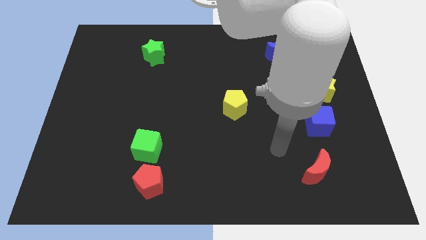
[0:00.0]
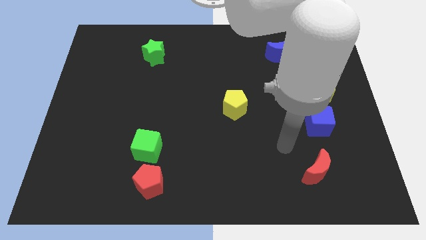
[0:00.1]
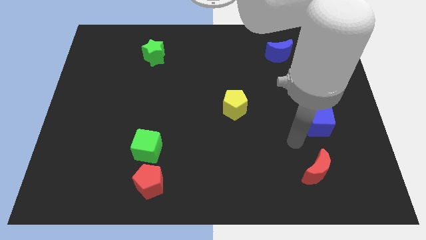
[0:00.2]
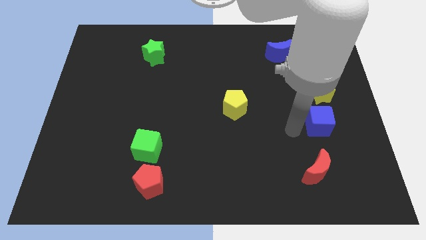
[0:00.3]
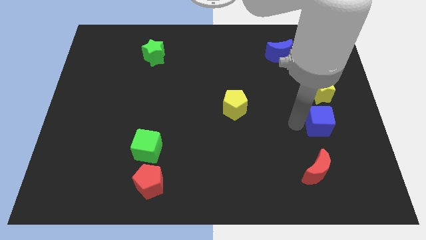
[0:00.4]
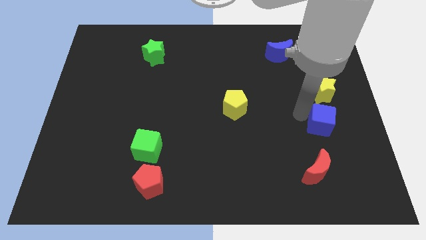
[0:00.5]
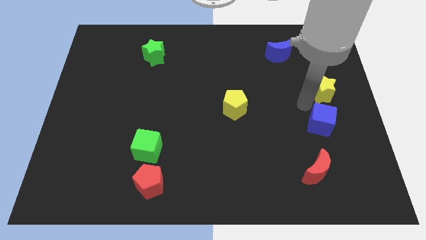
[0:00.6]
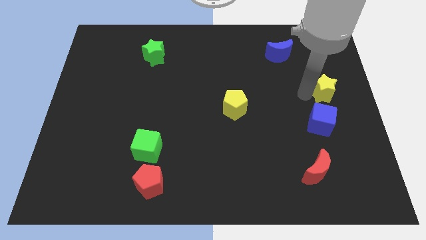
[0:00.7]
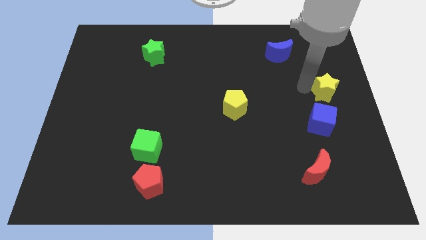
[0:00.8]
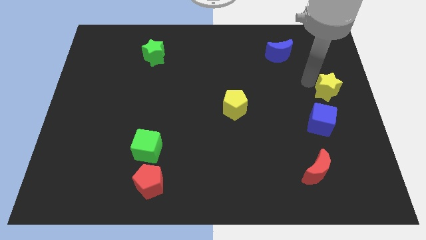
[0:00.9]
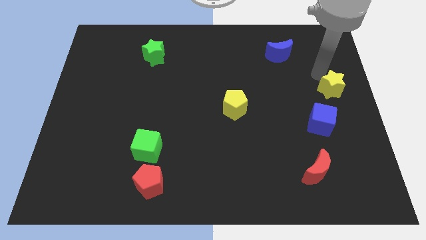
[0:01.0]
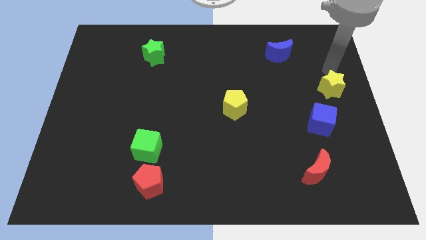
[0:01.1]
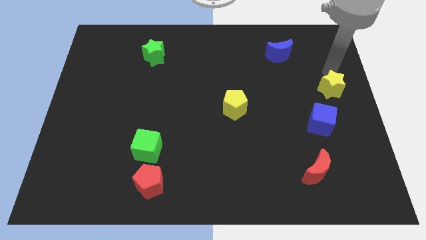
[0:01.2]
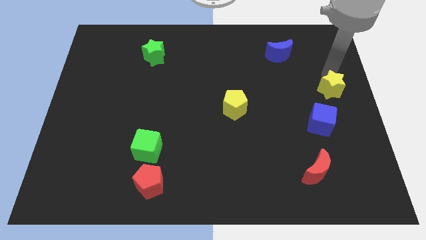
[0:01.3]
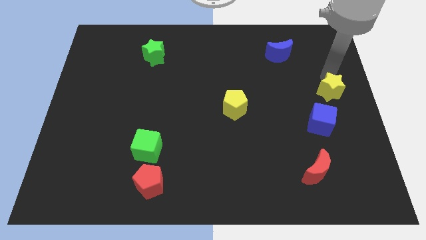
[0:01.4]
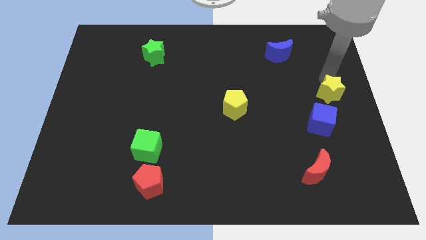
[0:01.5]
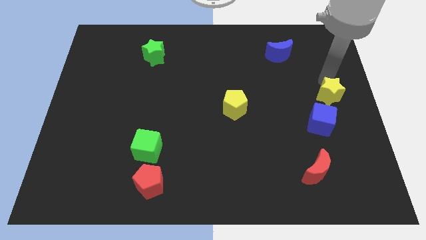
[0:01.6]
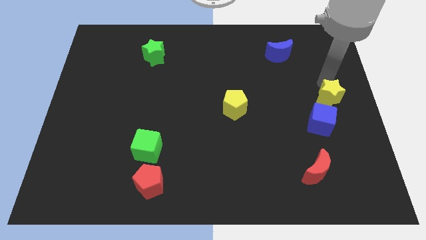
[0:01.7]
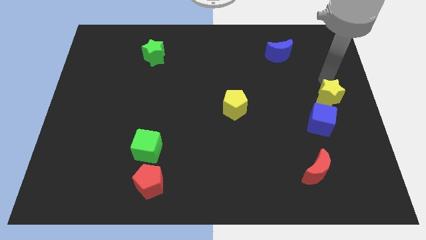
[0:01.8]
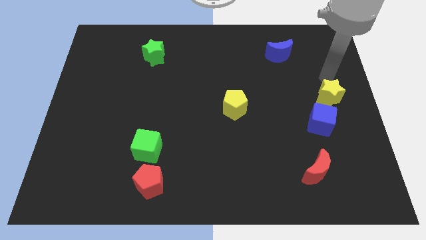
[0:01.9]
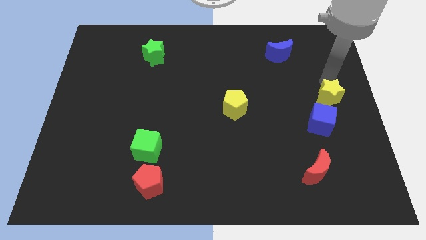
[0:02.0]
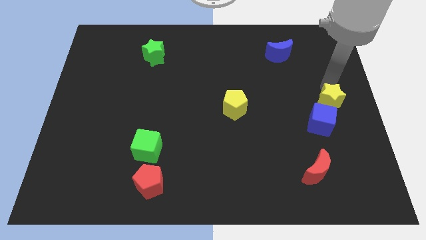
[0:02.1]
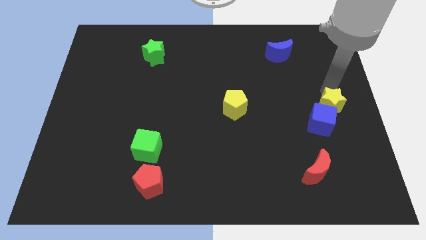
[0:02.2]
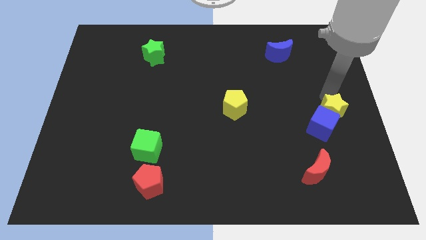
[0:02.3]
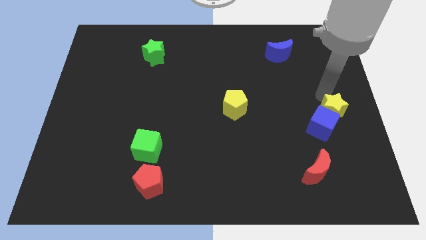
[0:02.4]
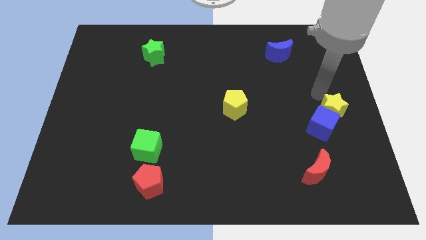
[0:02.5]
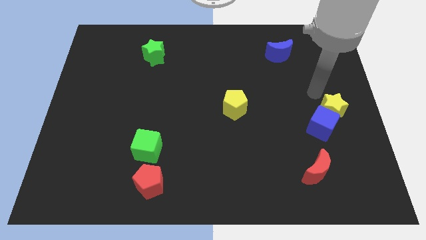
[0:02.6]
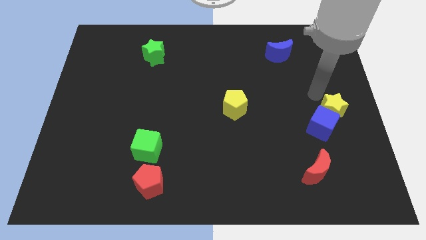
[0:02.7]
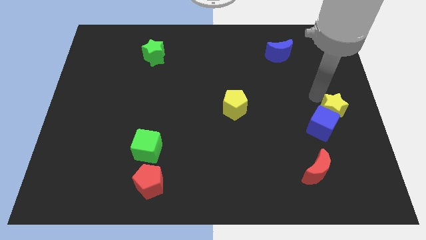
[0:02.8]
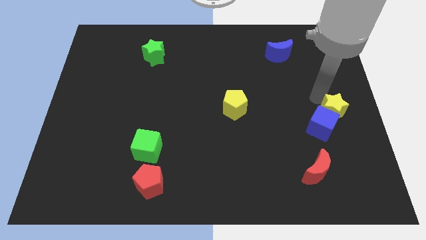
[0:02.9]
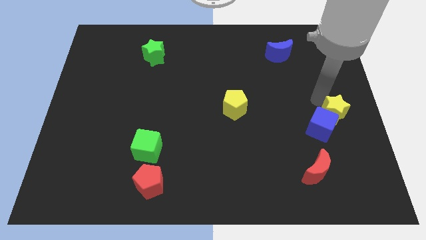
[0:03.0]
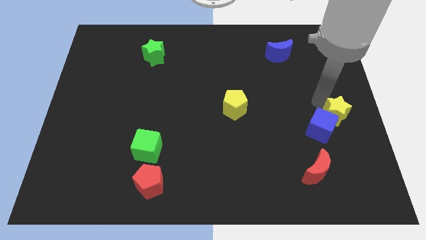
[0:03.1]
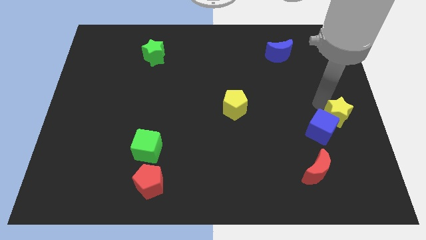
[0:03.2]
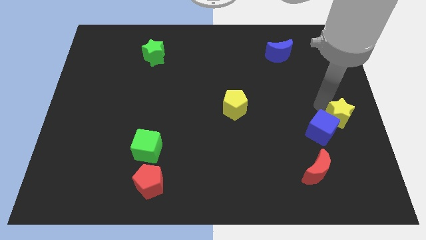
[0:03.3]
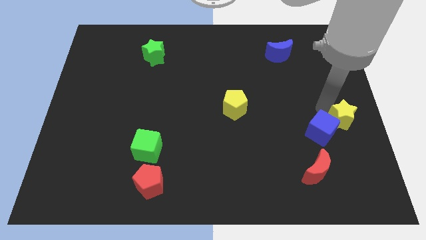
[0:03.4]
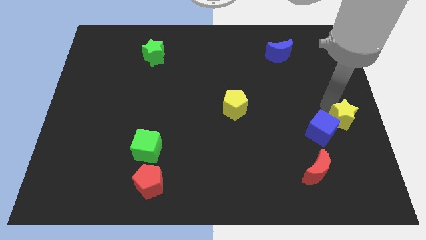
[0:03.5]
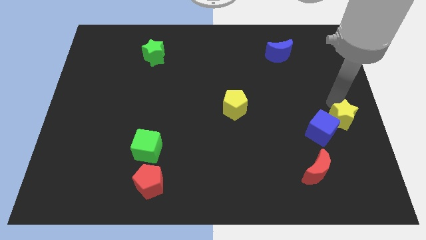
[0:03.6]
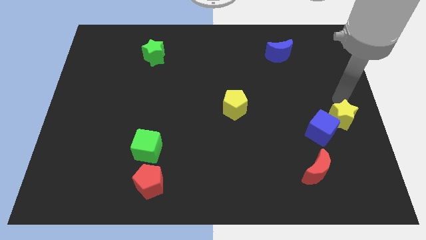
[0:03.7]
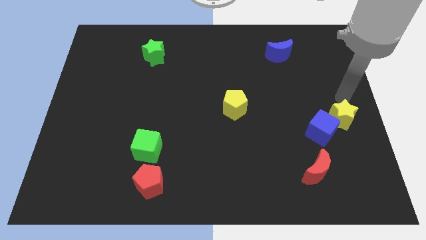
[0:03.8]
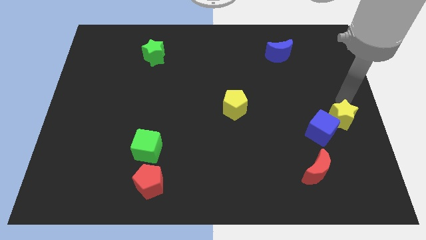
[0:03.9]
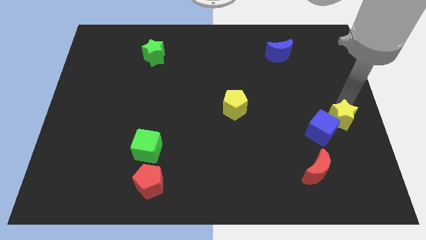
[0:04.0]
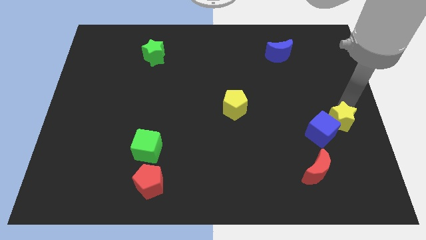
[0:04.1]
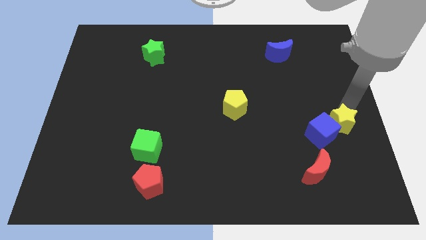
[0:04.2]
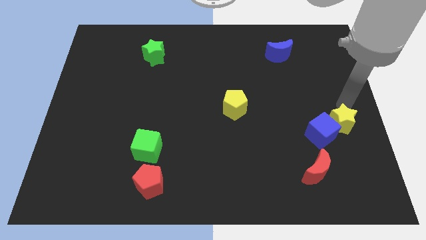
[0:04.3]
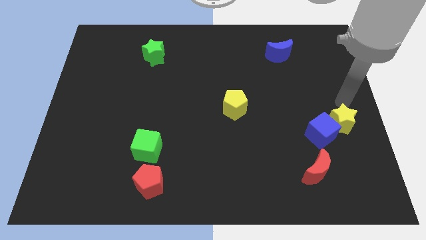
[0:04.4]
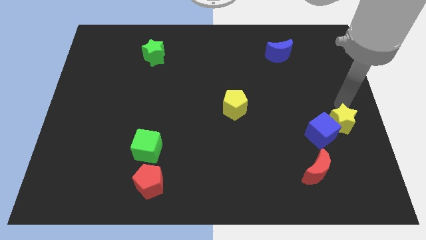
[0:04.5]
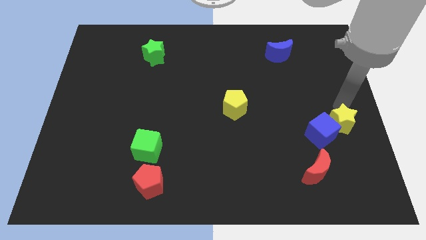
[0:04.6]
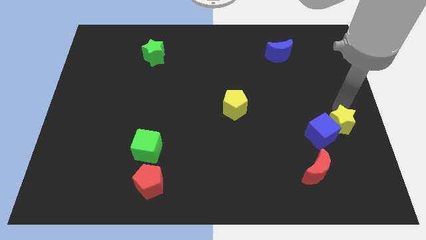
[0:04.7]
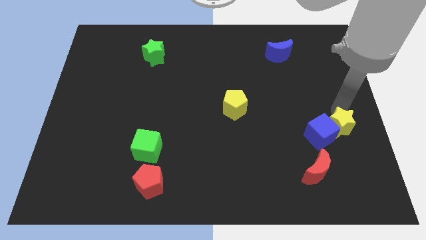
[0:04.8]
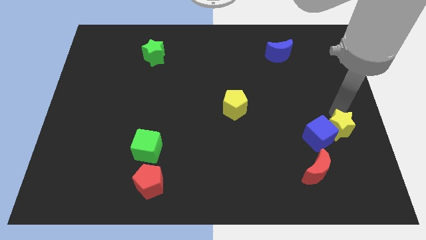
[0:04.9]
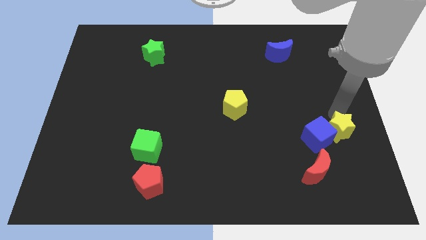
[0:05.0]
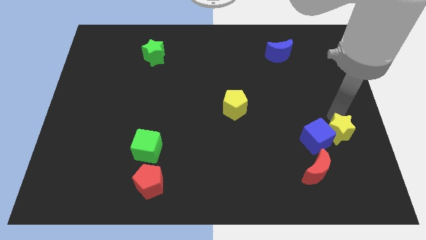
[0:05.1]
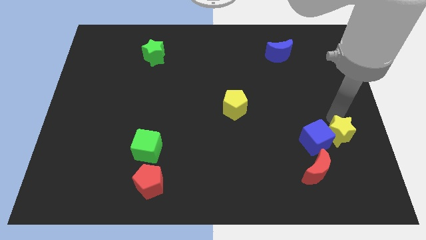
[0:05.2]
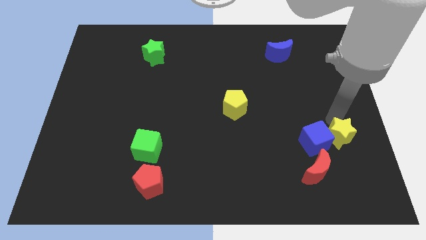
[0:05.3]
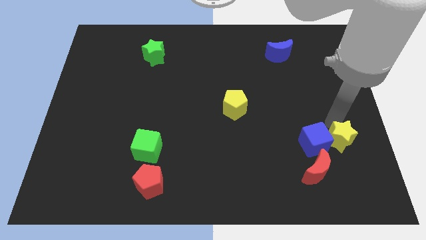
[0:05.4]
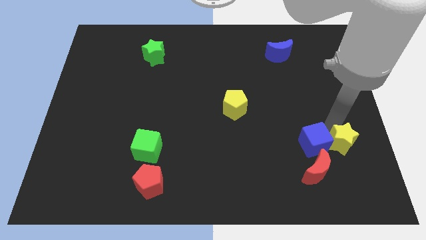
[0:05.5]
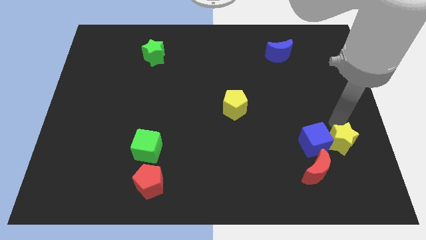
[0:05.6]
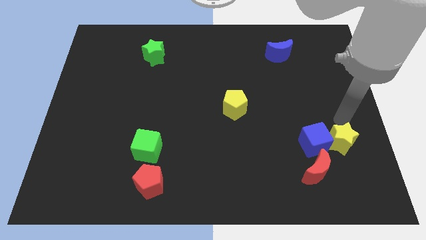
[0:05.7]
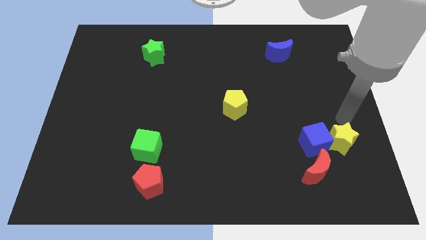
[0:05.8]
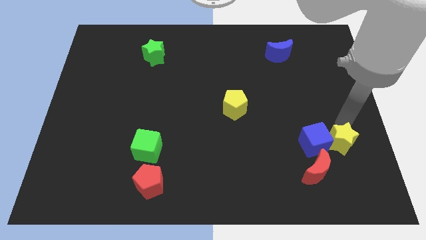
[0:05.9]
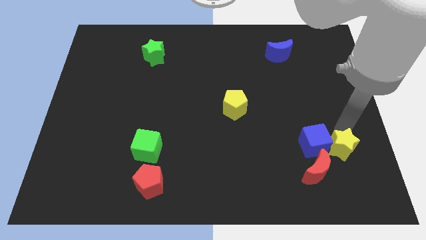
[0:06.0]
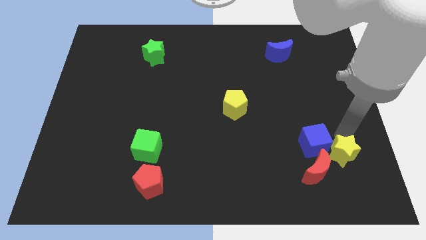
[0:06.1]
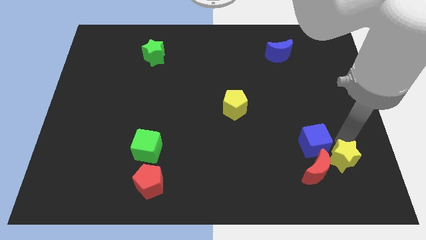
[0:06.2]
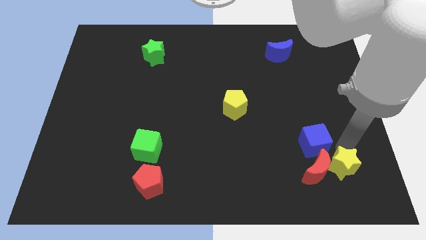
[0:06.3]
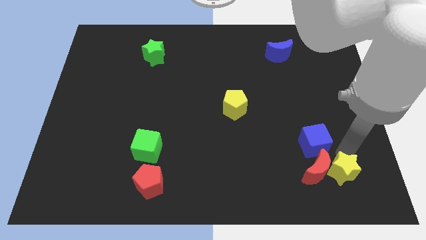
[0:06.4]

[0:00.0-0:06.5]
push the yellow star below the blue cube

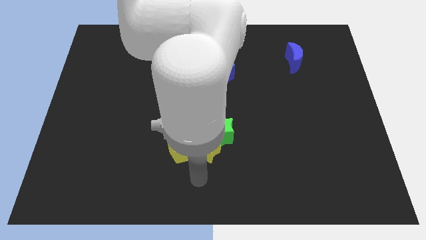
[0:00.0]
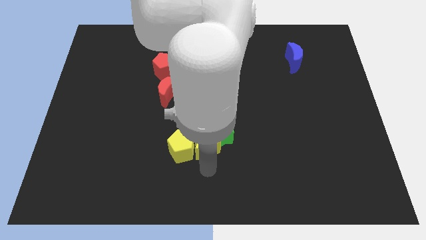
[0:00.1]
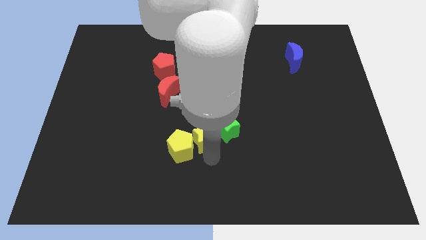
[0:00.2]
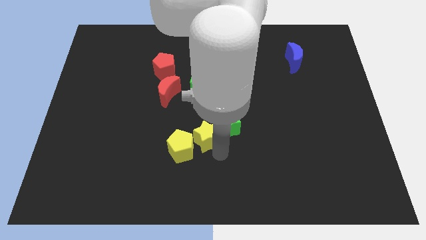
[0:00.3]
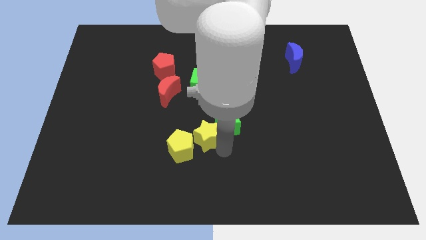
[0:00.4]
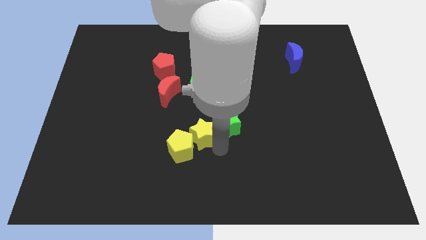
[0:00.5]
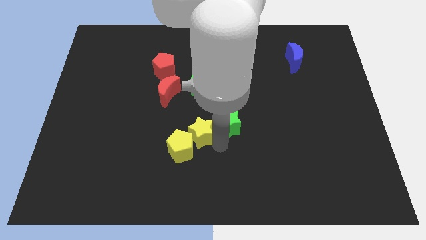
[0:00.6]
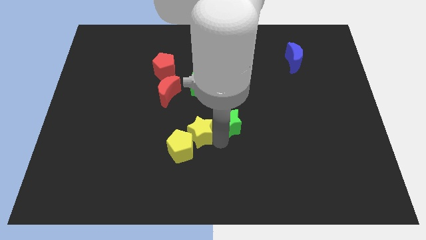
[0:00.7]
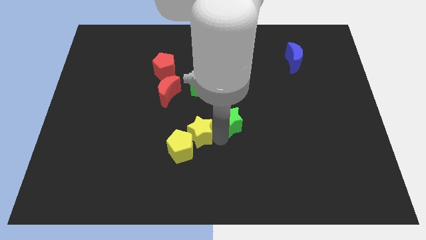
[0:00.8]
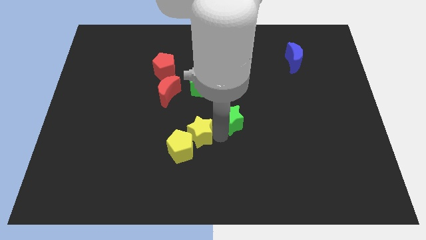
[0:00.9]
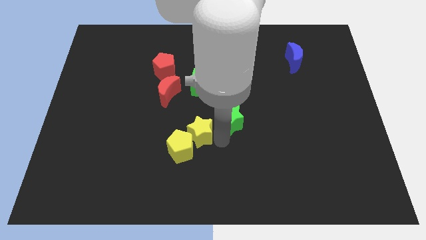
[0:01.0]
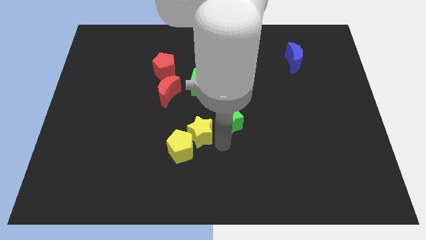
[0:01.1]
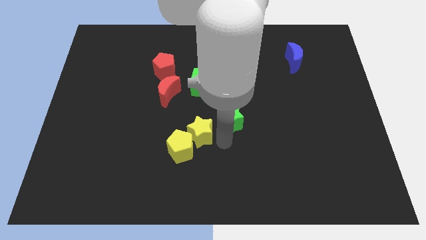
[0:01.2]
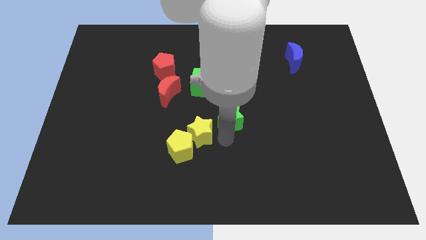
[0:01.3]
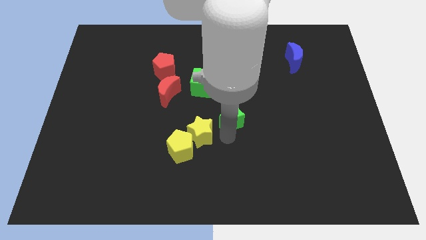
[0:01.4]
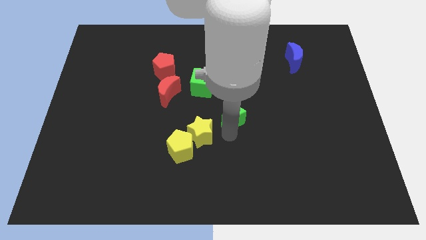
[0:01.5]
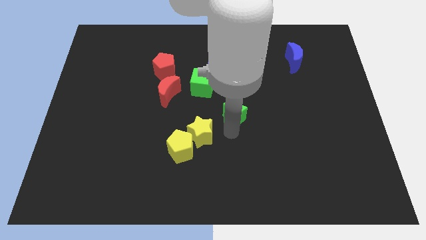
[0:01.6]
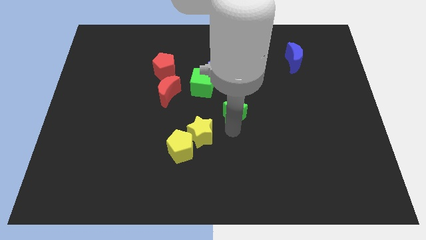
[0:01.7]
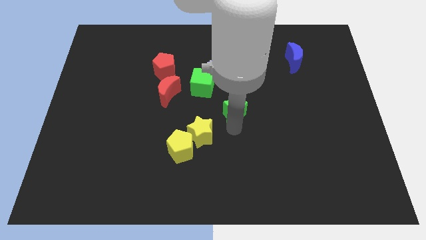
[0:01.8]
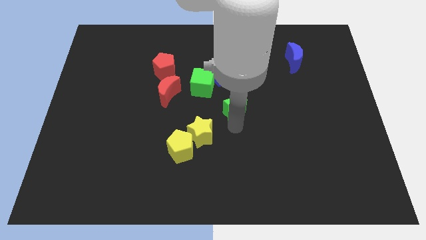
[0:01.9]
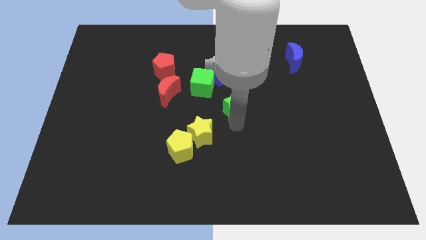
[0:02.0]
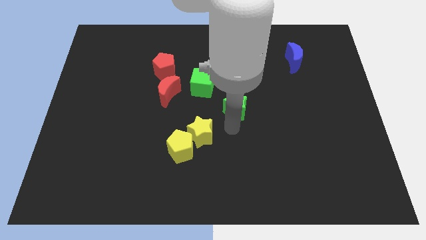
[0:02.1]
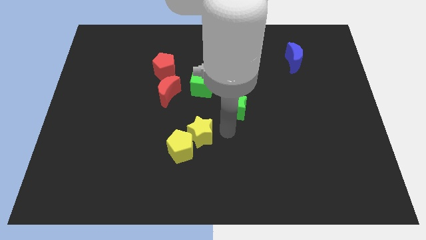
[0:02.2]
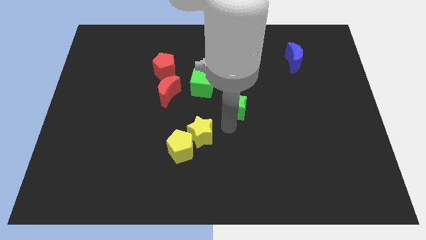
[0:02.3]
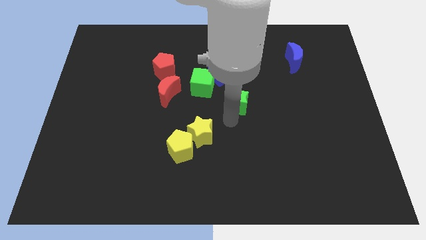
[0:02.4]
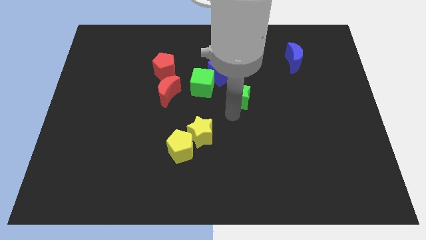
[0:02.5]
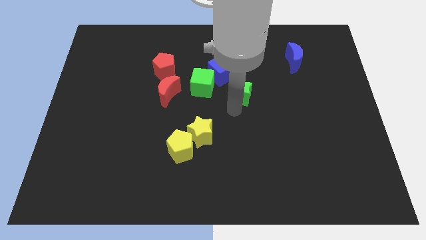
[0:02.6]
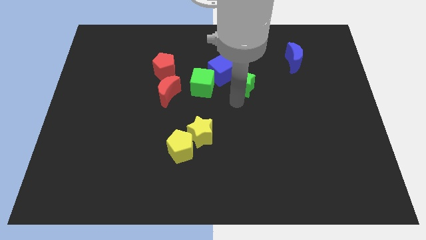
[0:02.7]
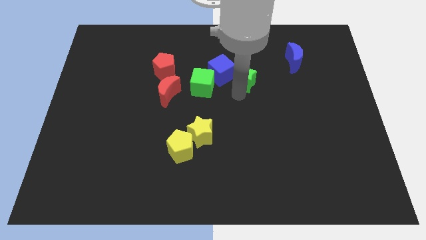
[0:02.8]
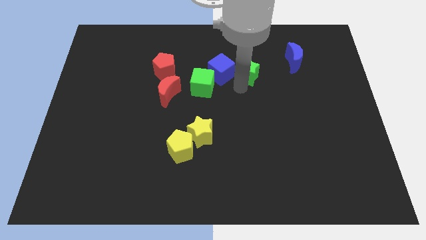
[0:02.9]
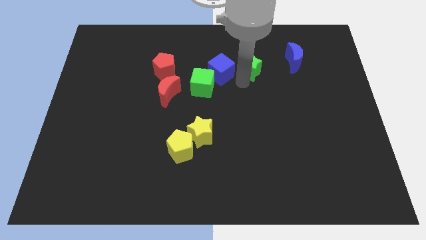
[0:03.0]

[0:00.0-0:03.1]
slide the green star left of the blue moon
